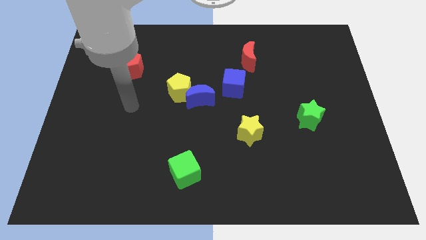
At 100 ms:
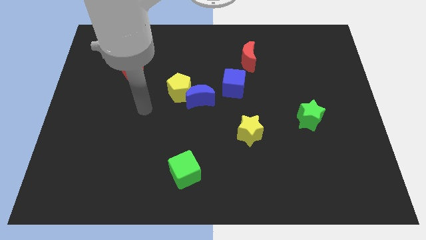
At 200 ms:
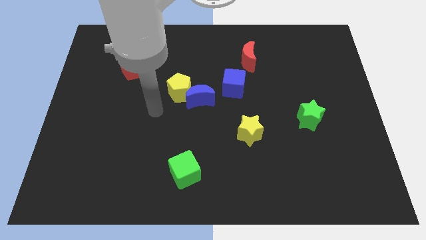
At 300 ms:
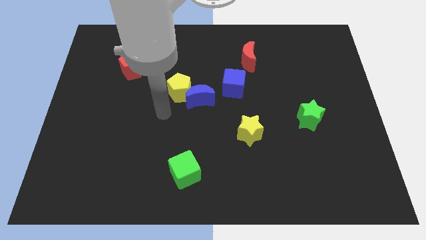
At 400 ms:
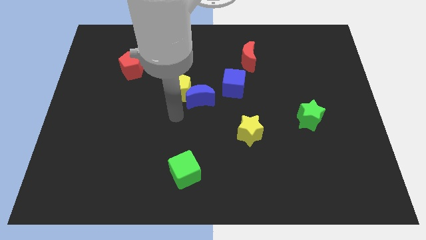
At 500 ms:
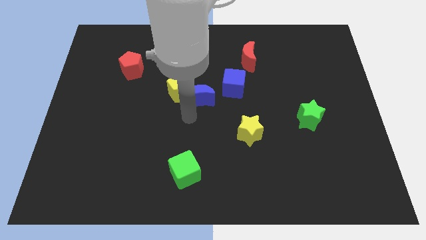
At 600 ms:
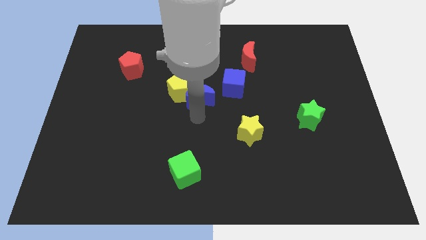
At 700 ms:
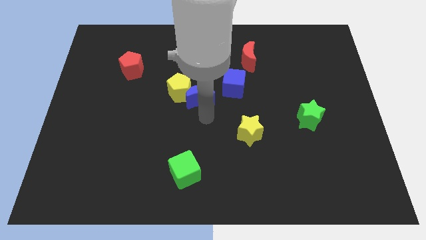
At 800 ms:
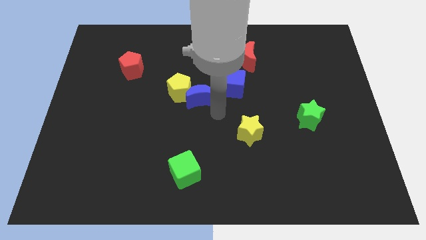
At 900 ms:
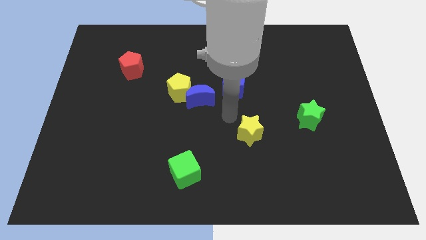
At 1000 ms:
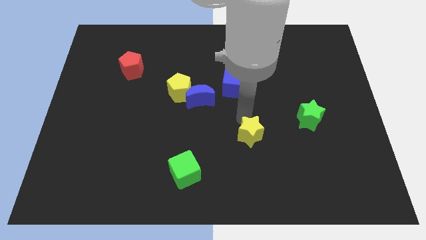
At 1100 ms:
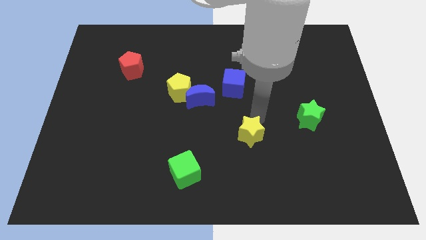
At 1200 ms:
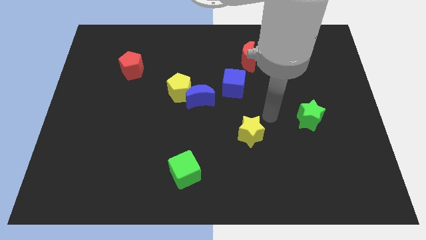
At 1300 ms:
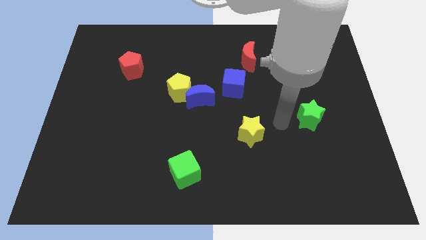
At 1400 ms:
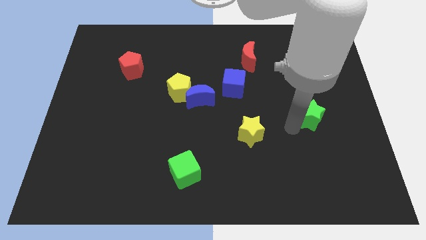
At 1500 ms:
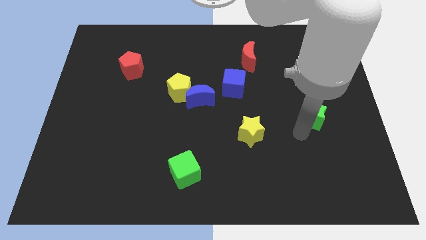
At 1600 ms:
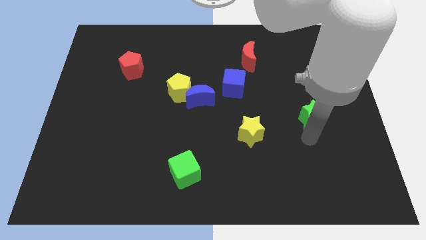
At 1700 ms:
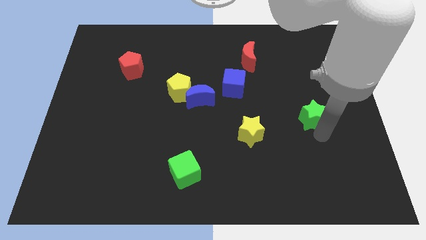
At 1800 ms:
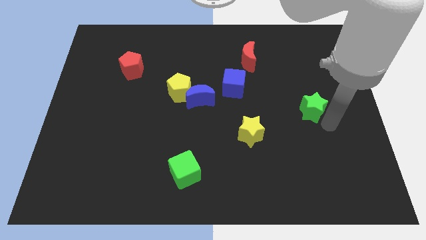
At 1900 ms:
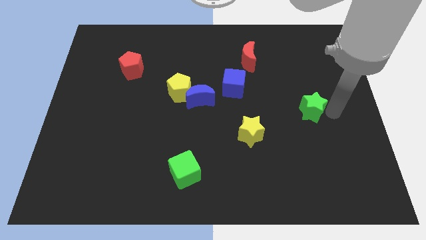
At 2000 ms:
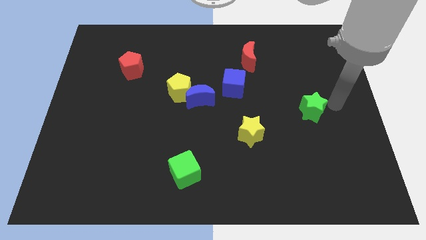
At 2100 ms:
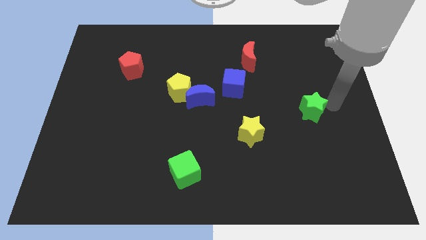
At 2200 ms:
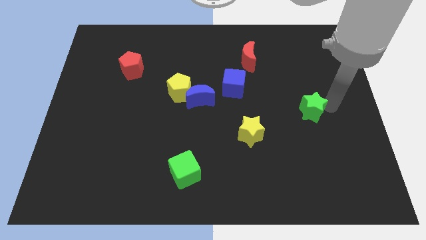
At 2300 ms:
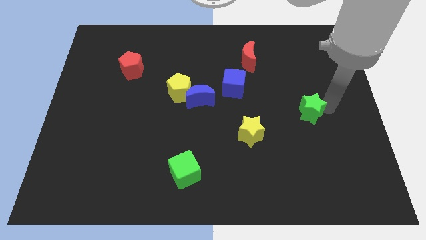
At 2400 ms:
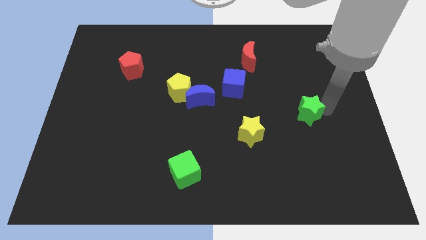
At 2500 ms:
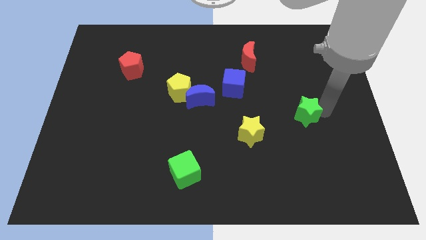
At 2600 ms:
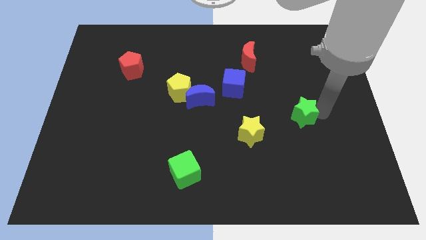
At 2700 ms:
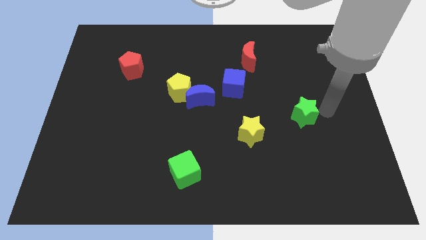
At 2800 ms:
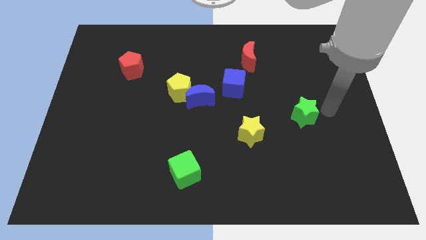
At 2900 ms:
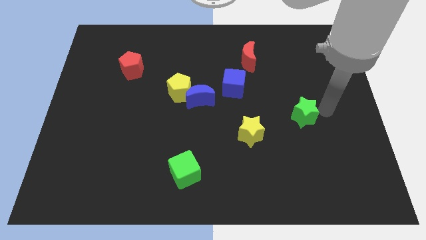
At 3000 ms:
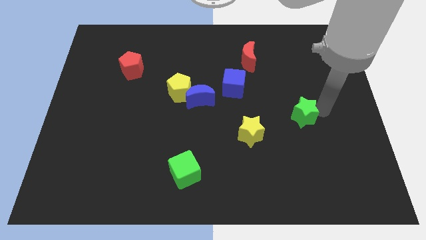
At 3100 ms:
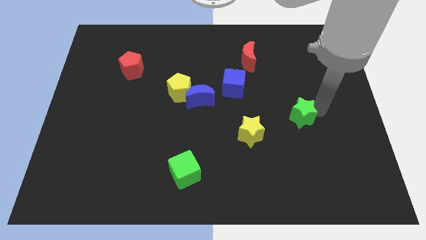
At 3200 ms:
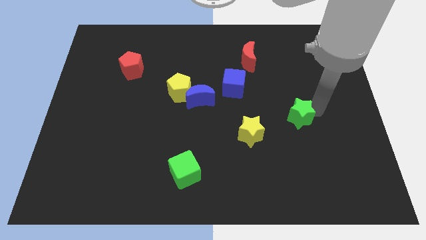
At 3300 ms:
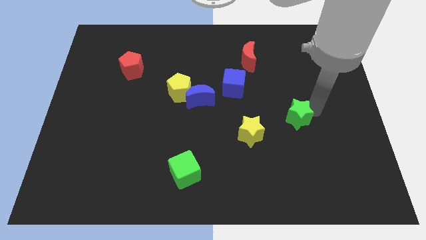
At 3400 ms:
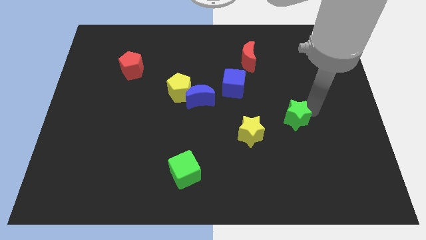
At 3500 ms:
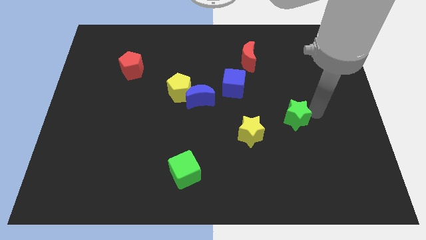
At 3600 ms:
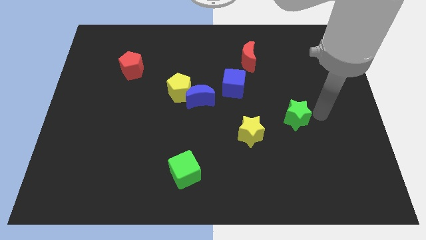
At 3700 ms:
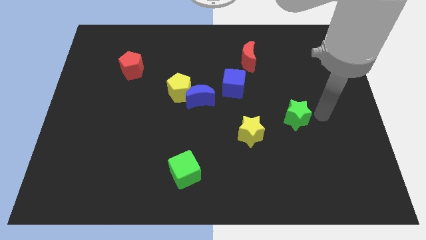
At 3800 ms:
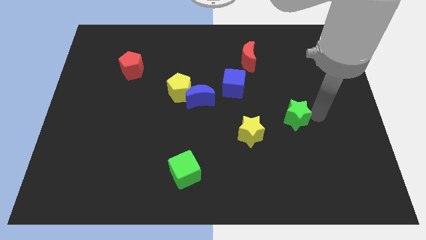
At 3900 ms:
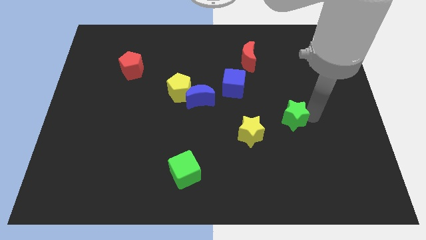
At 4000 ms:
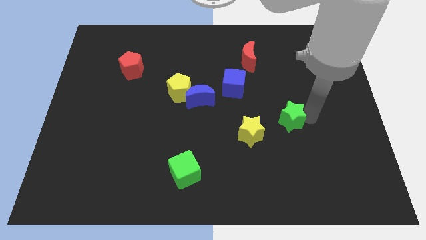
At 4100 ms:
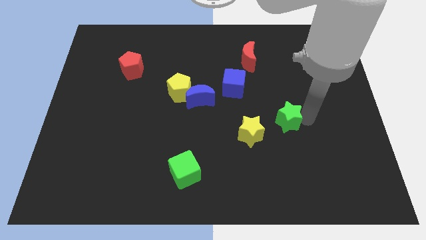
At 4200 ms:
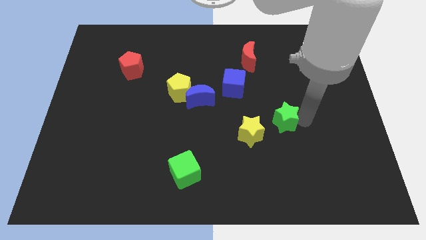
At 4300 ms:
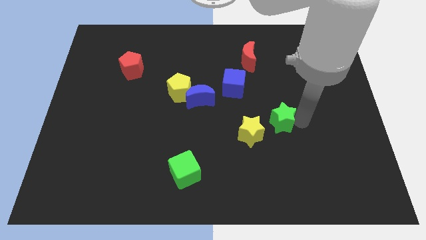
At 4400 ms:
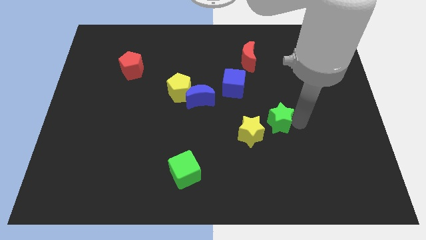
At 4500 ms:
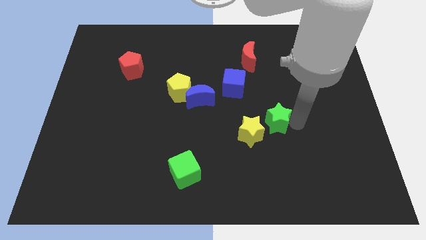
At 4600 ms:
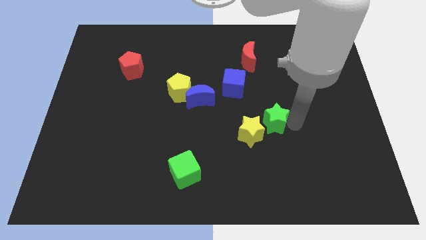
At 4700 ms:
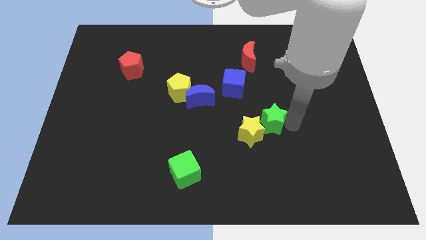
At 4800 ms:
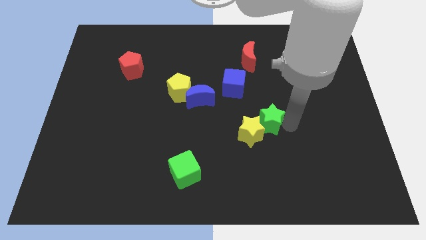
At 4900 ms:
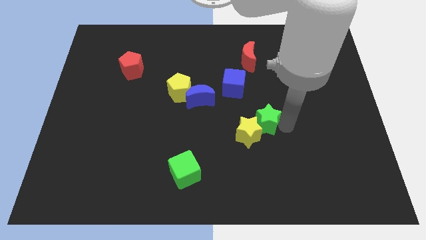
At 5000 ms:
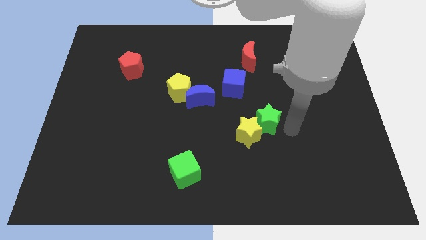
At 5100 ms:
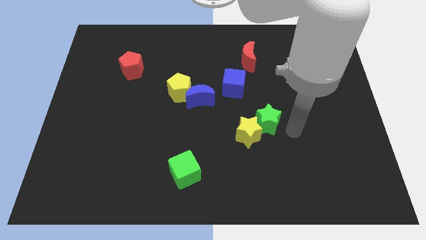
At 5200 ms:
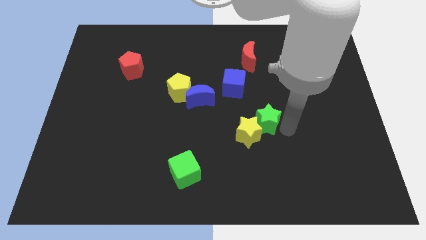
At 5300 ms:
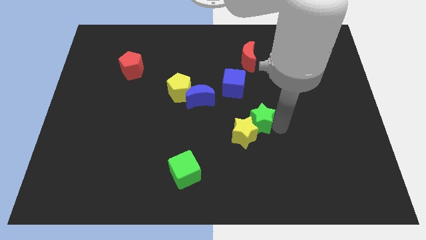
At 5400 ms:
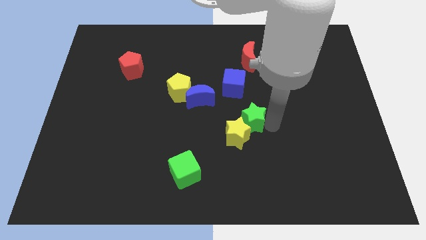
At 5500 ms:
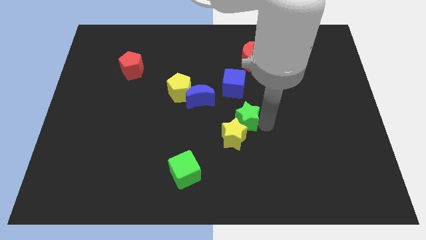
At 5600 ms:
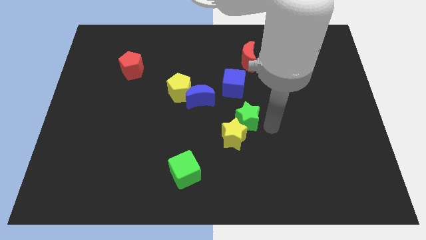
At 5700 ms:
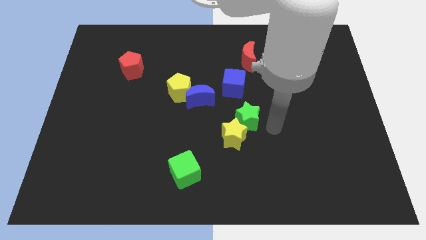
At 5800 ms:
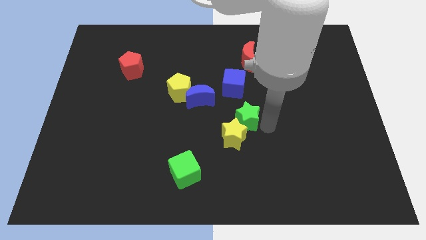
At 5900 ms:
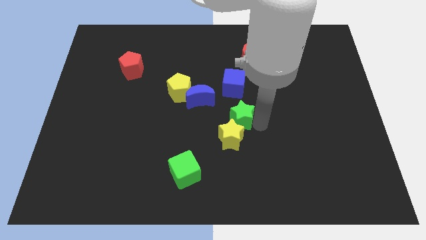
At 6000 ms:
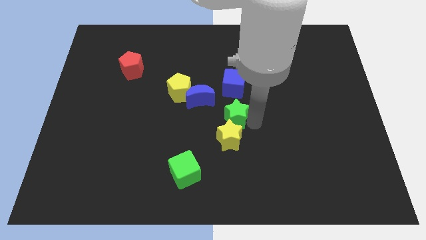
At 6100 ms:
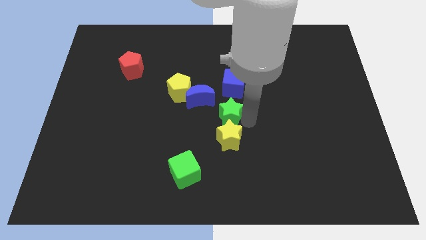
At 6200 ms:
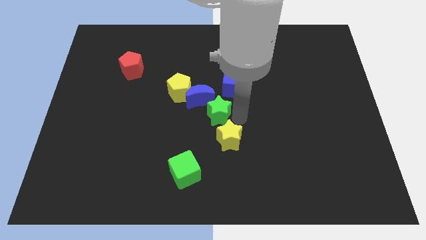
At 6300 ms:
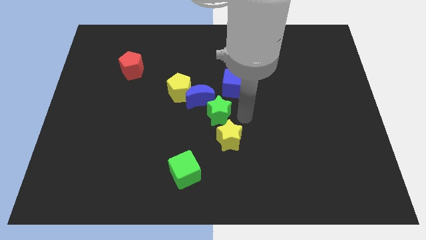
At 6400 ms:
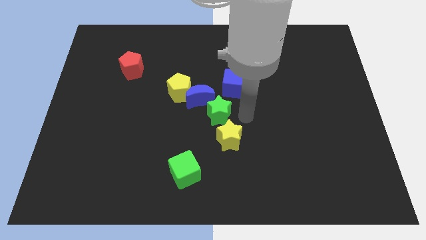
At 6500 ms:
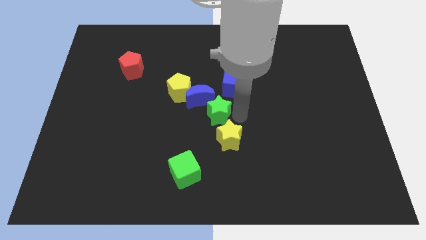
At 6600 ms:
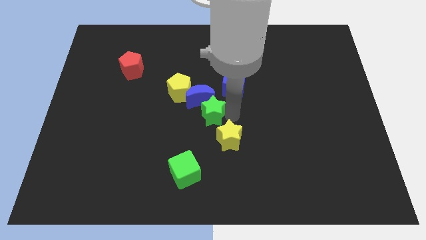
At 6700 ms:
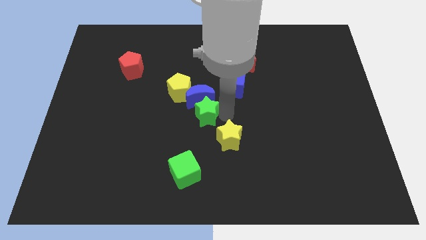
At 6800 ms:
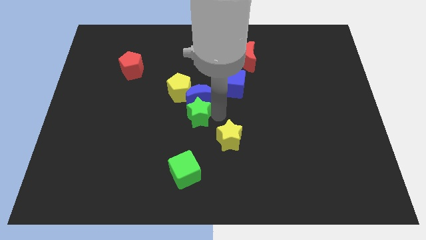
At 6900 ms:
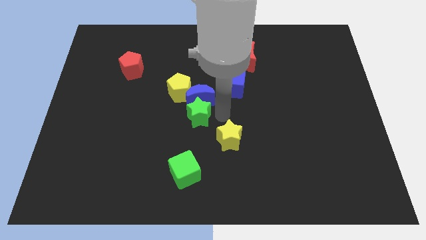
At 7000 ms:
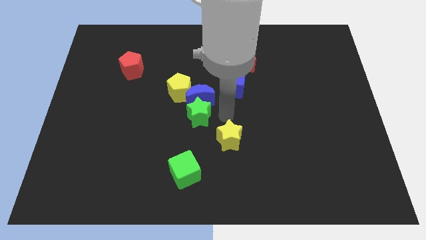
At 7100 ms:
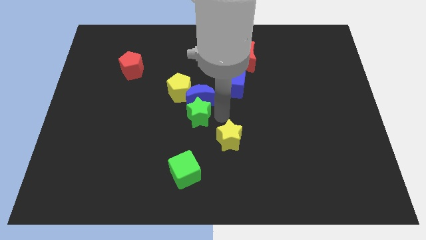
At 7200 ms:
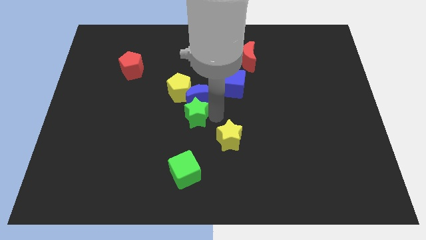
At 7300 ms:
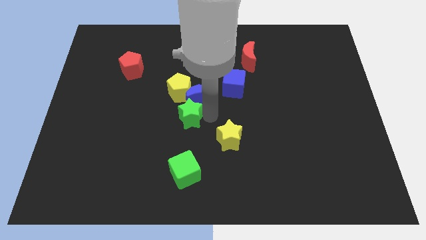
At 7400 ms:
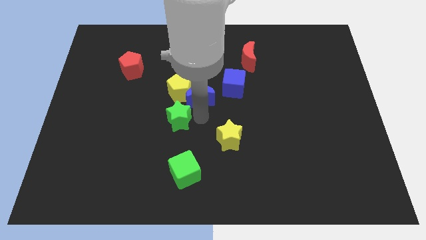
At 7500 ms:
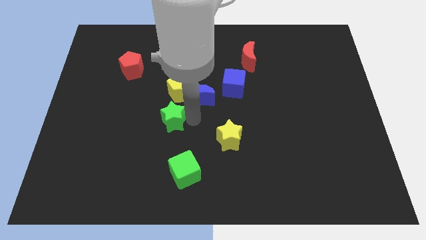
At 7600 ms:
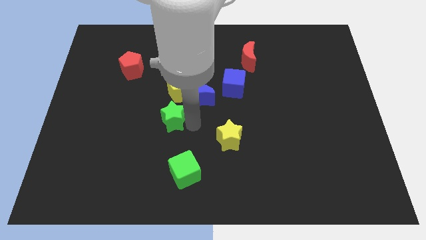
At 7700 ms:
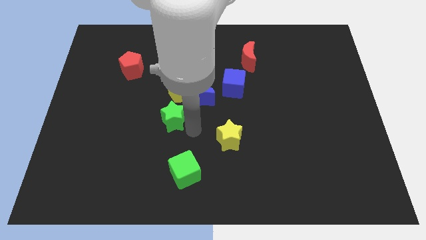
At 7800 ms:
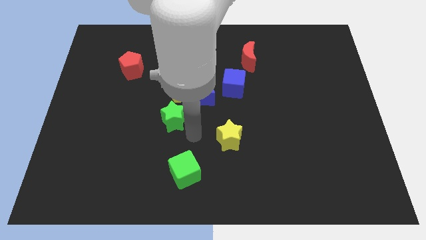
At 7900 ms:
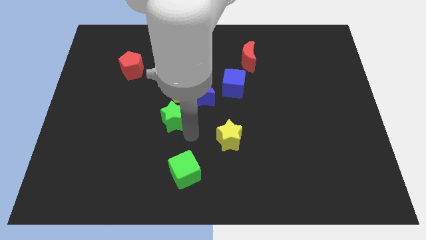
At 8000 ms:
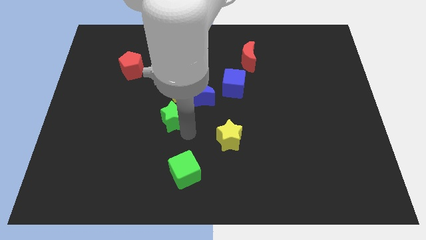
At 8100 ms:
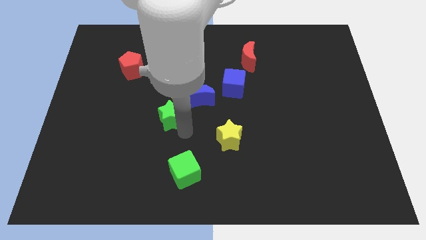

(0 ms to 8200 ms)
move the green star to the bottom left of the yellow pentagon
